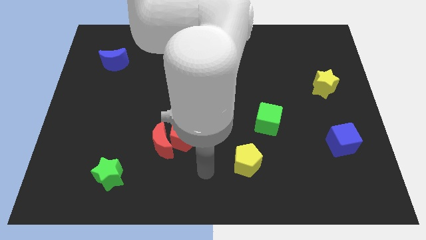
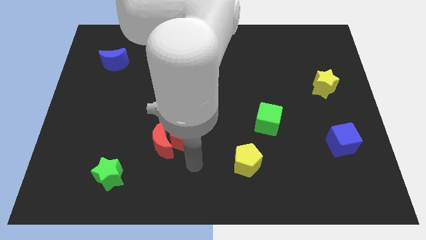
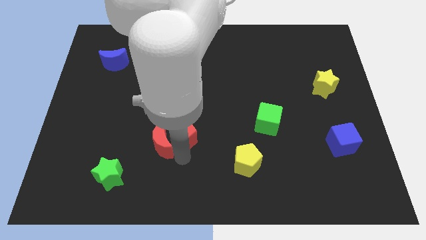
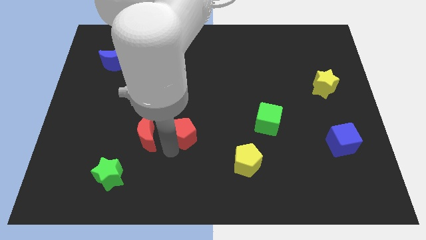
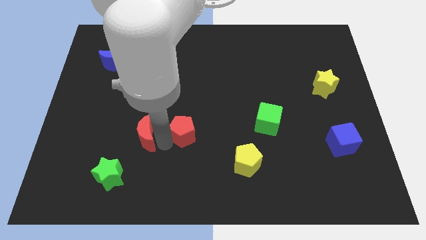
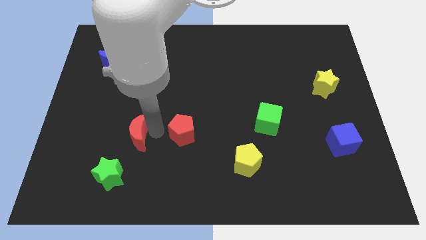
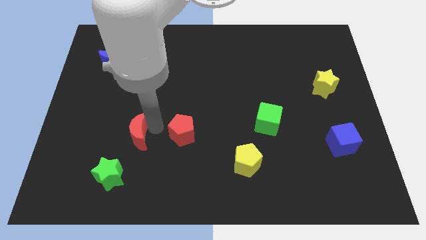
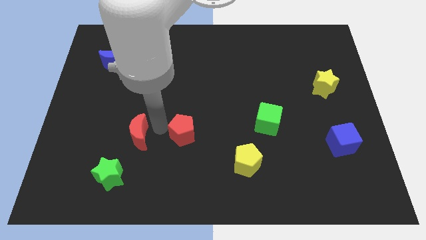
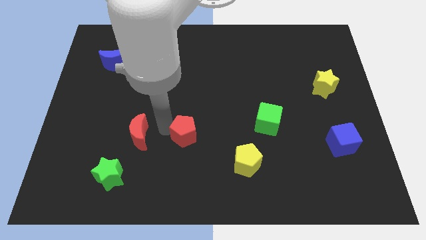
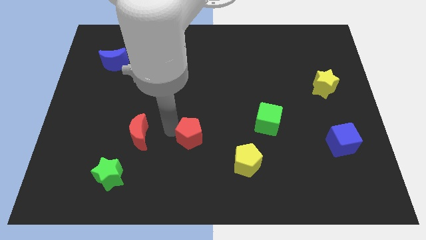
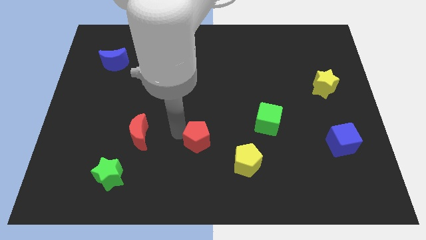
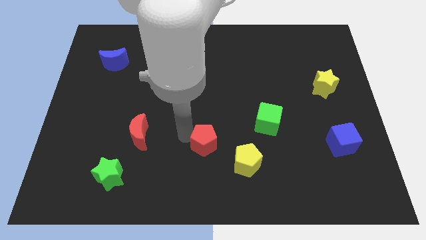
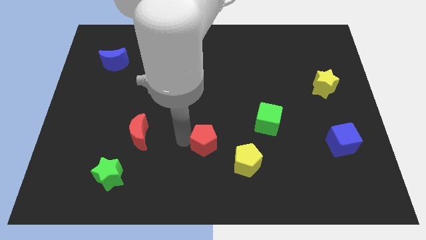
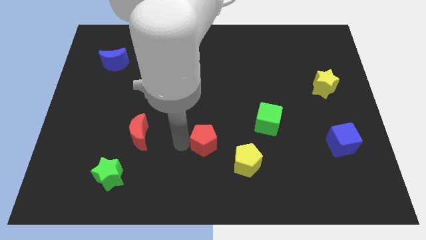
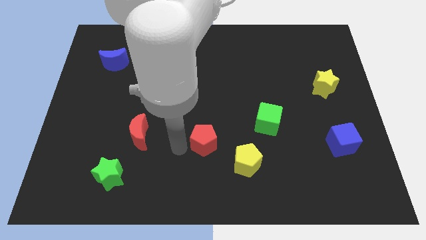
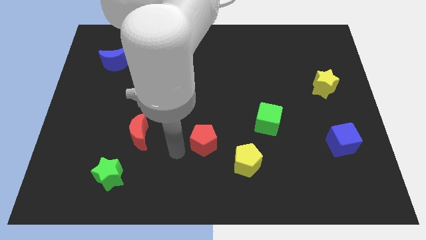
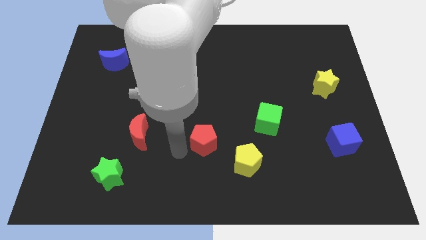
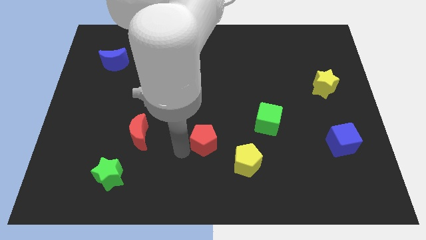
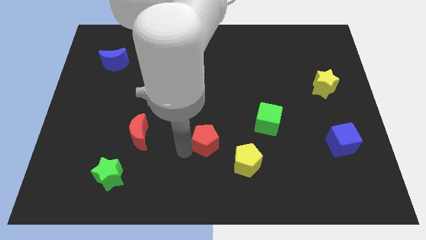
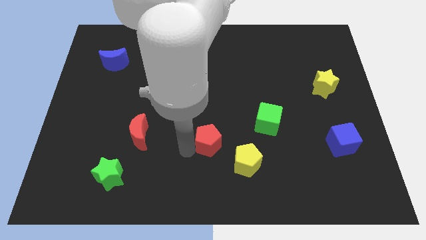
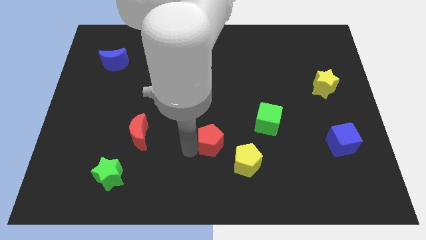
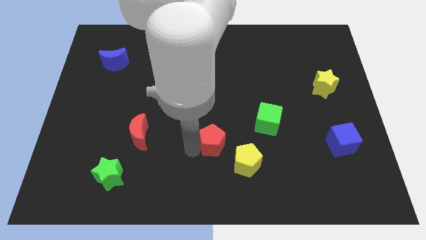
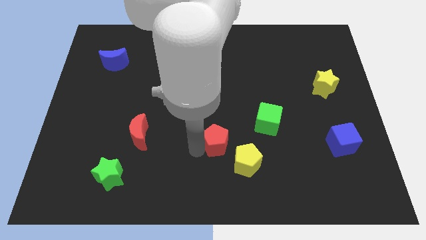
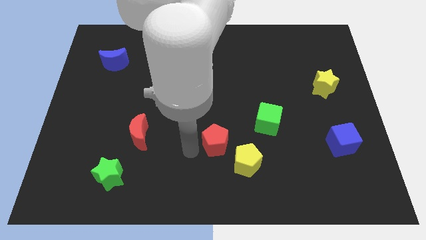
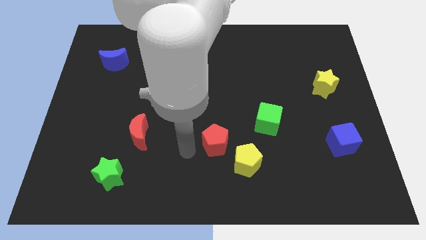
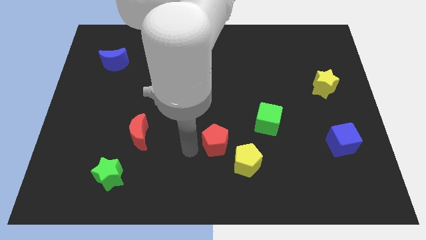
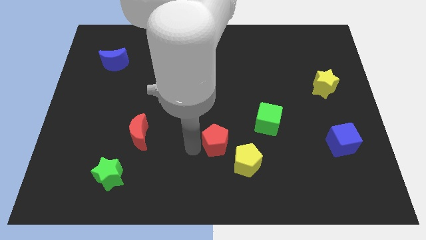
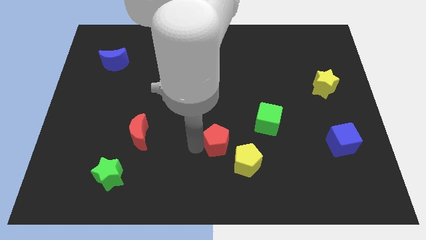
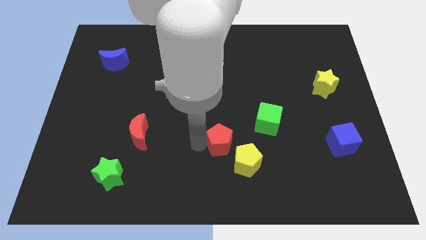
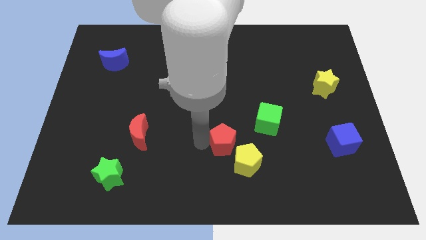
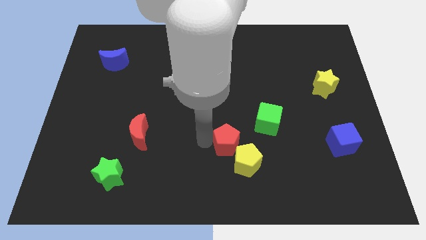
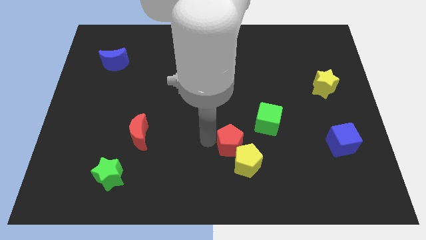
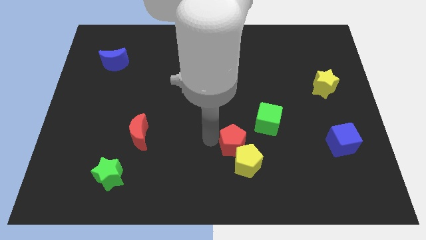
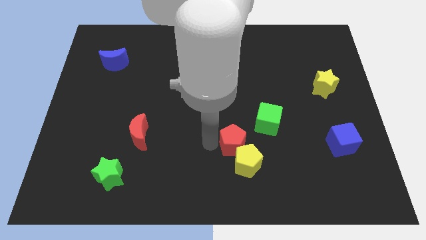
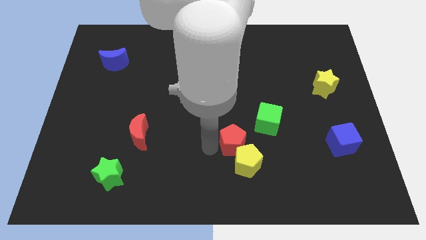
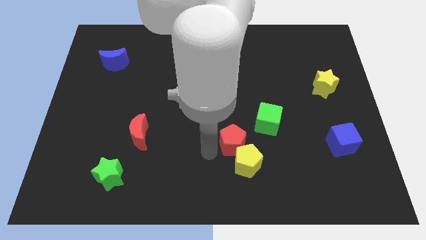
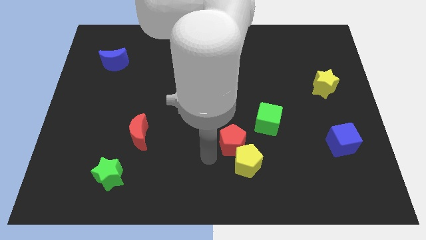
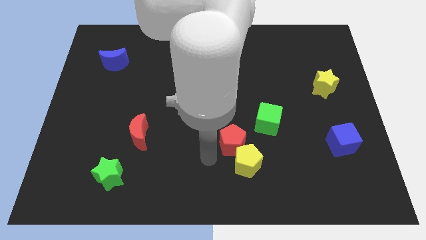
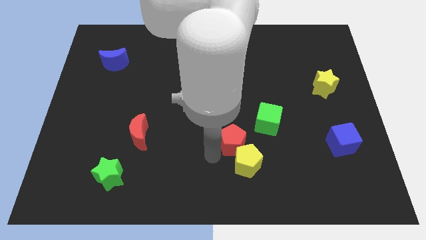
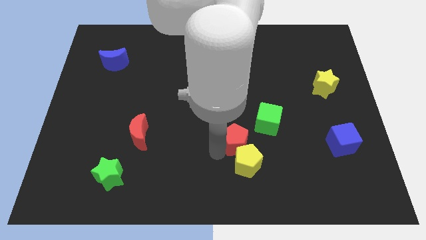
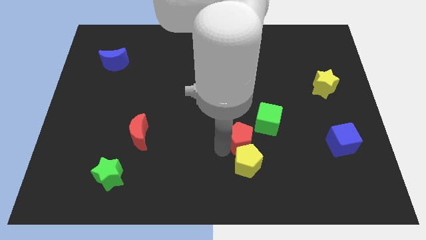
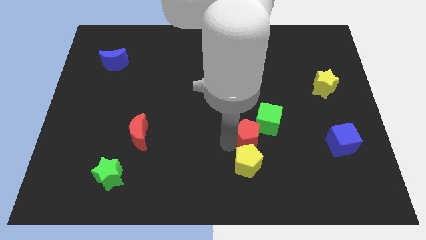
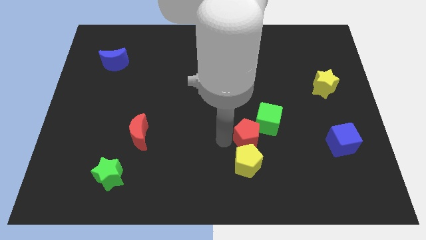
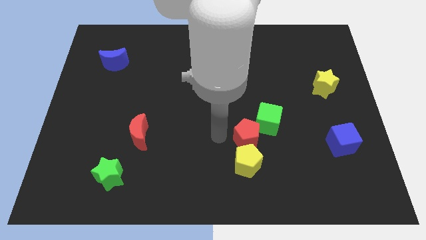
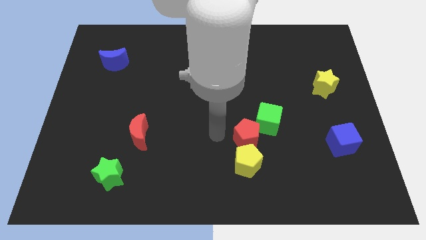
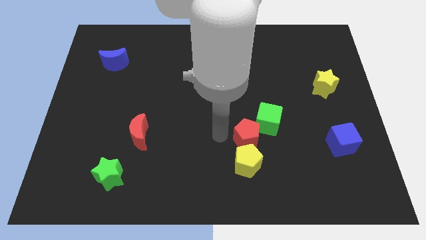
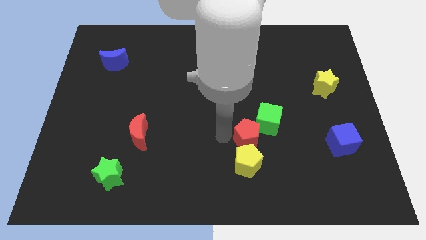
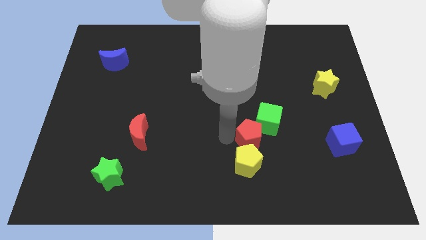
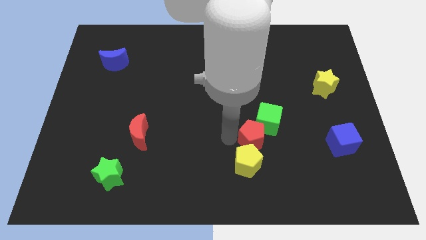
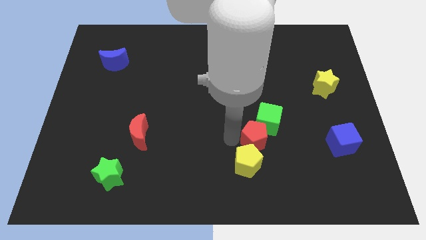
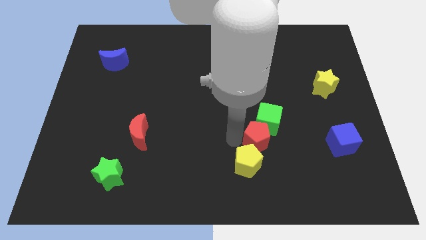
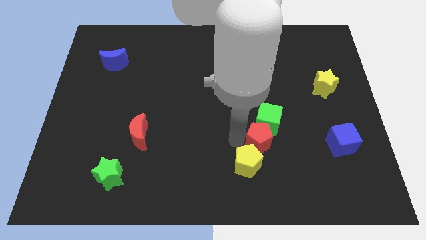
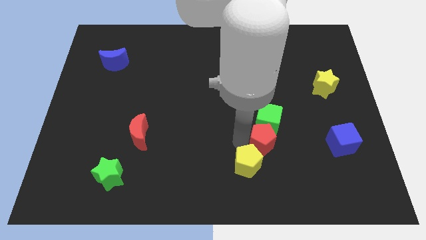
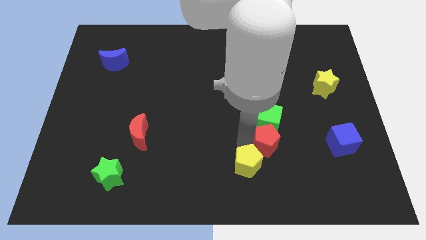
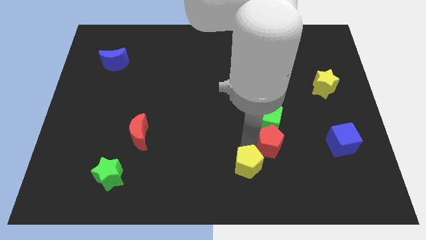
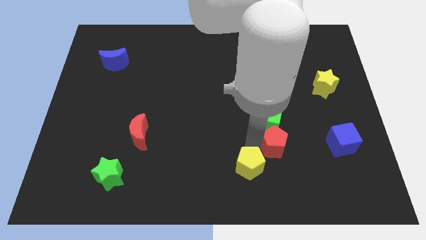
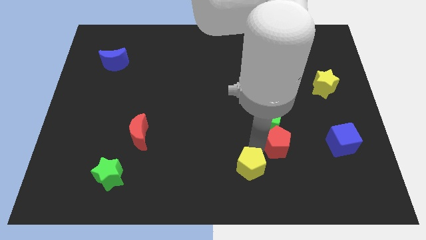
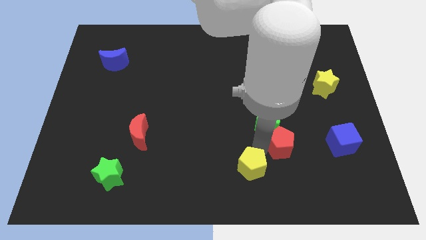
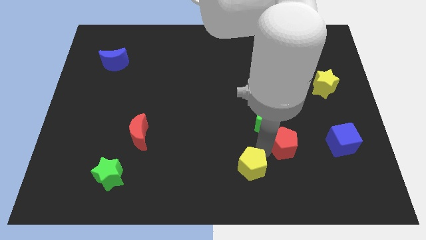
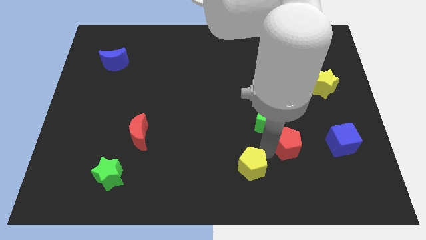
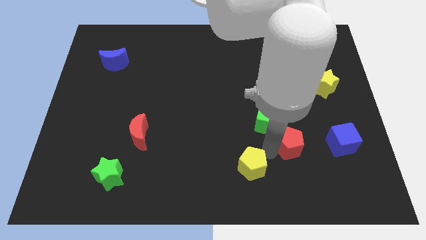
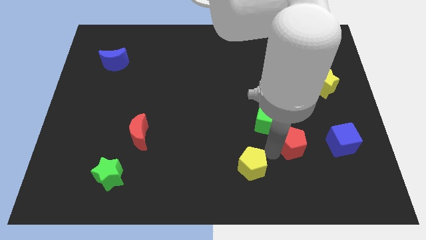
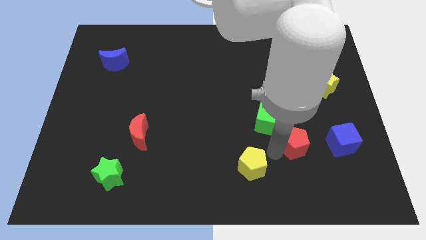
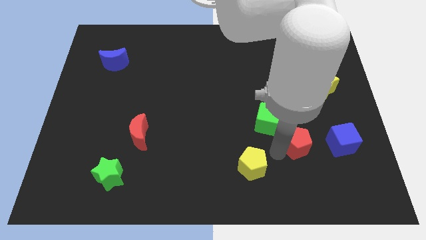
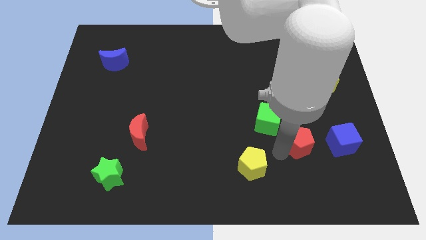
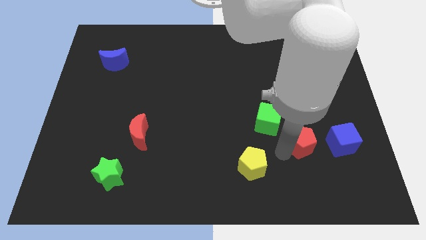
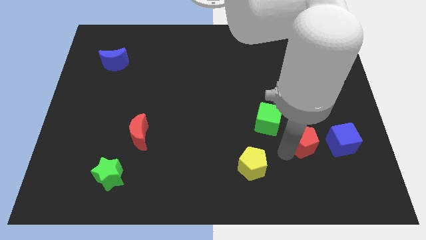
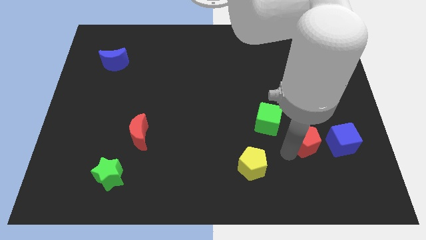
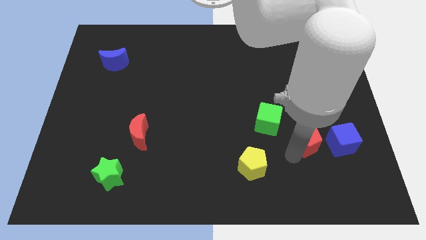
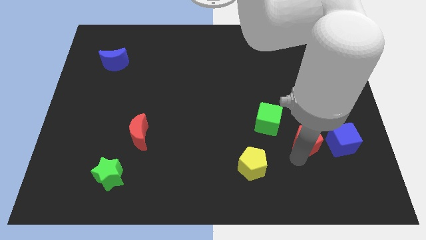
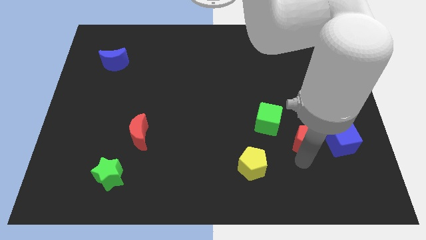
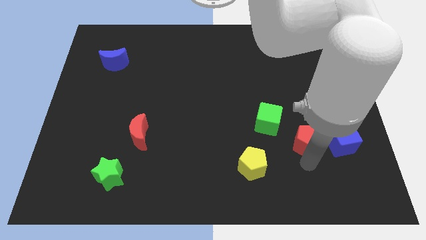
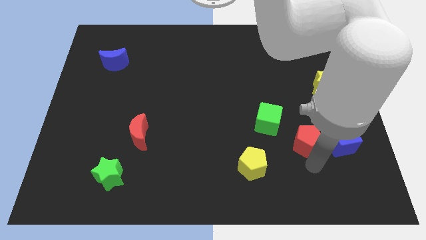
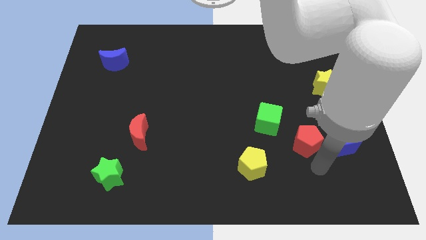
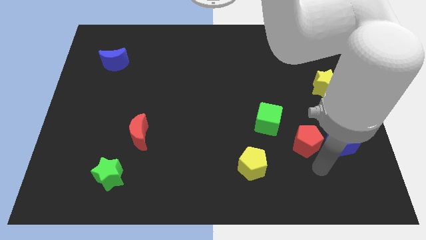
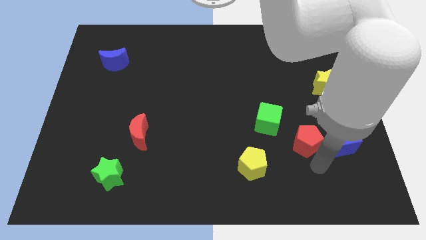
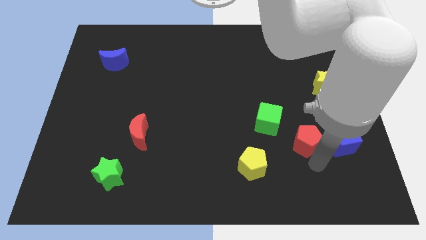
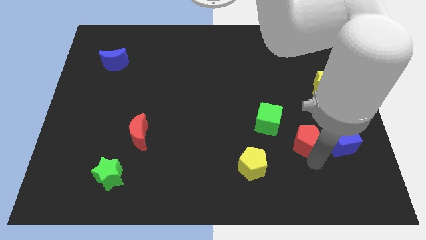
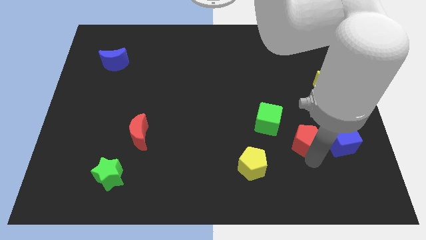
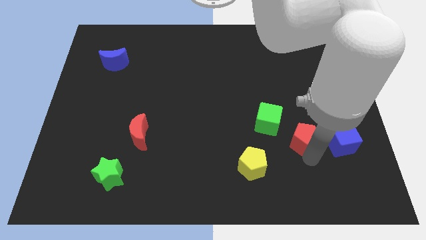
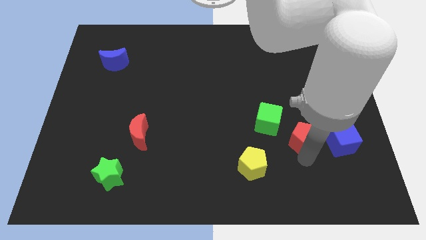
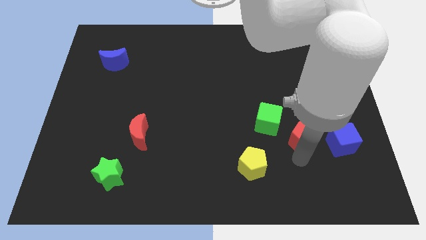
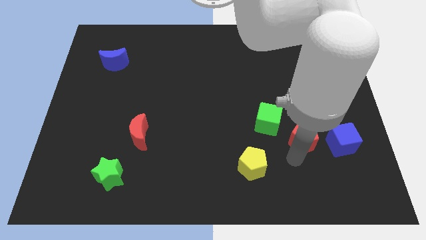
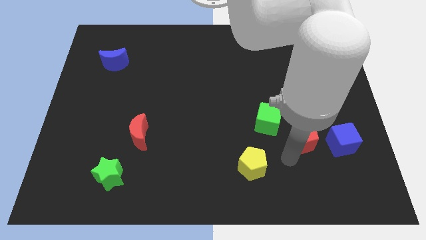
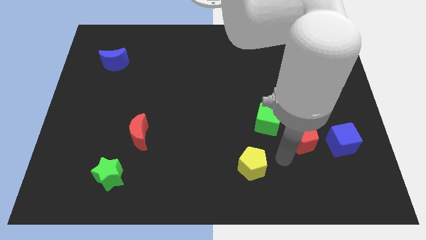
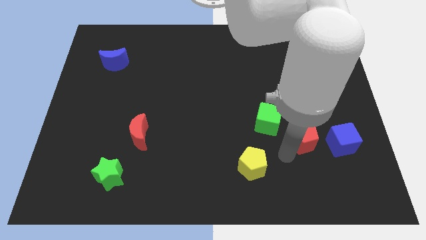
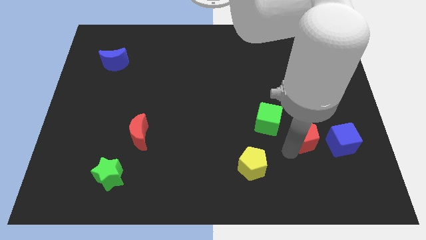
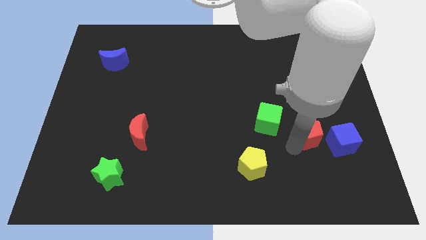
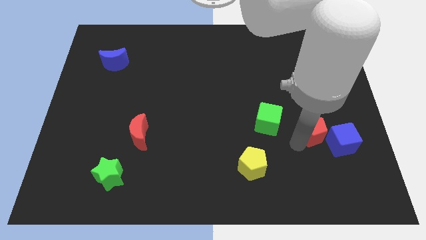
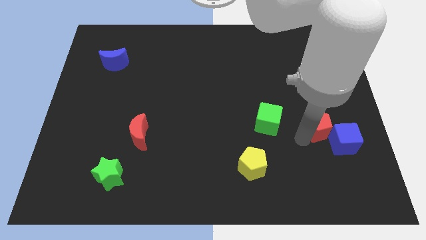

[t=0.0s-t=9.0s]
slide the red pentagon to the bottom of the yellow star
